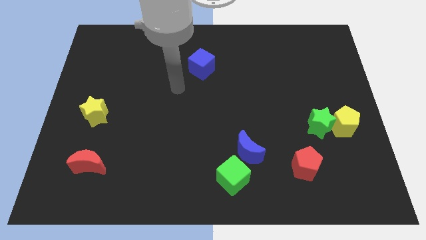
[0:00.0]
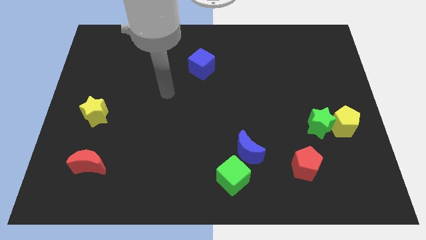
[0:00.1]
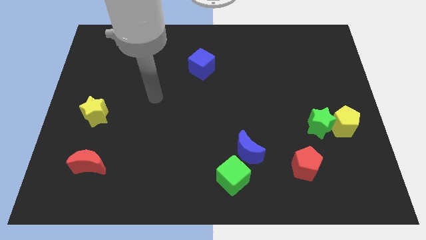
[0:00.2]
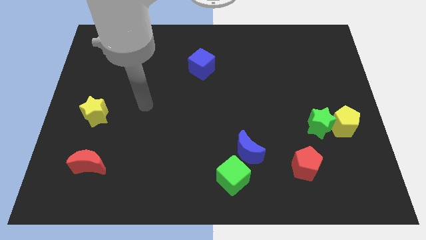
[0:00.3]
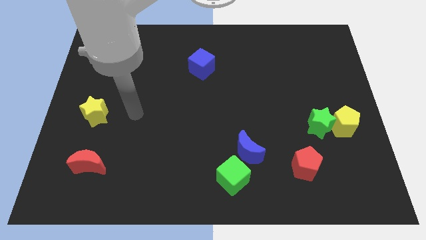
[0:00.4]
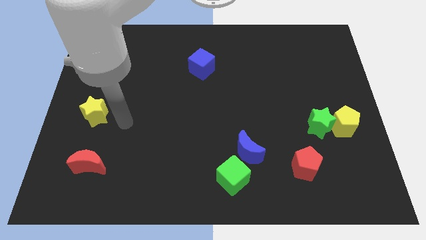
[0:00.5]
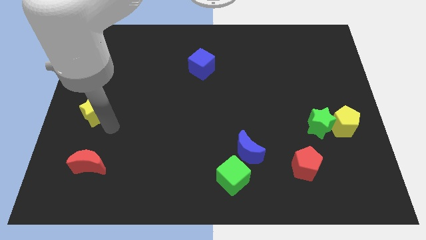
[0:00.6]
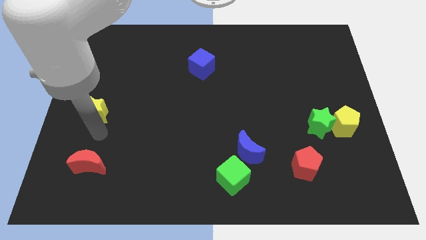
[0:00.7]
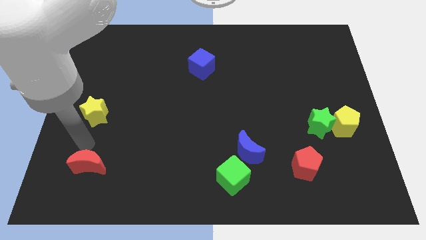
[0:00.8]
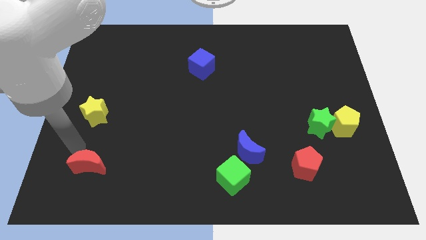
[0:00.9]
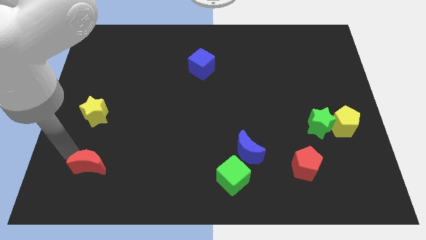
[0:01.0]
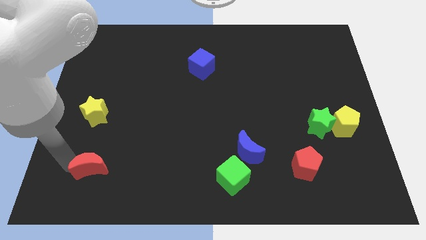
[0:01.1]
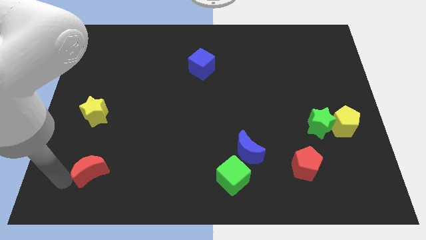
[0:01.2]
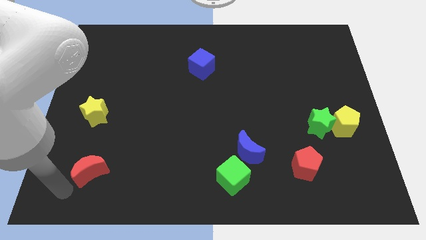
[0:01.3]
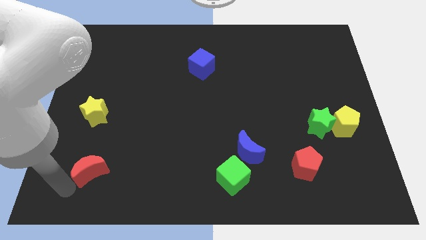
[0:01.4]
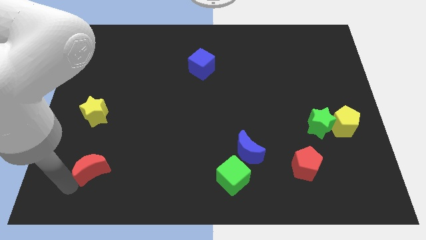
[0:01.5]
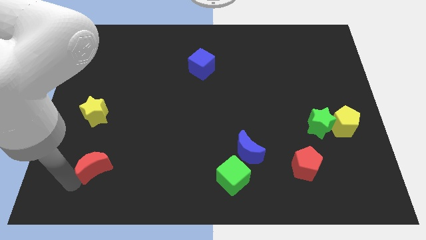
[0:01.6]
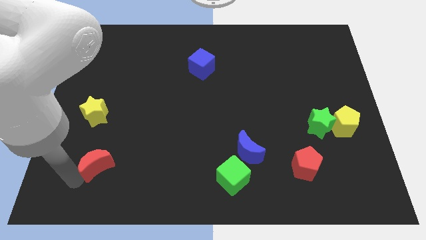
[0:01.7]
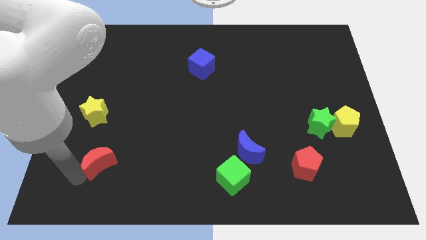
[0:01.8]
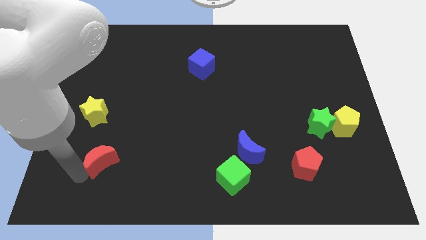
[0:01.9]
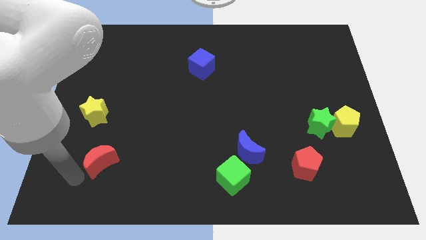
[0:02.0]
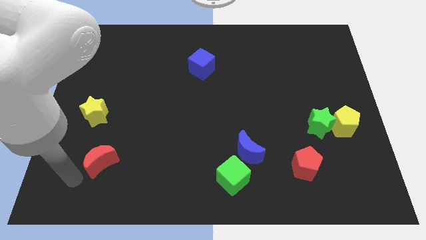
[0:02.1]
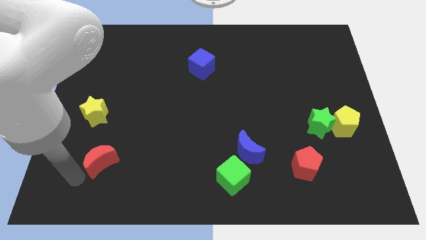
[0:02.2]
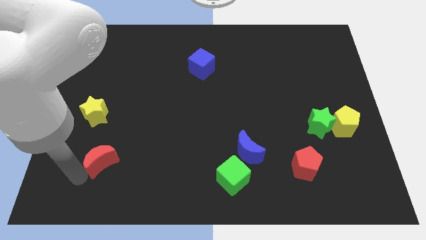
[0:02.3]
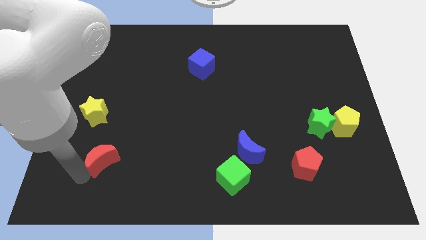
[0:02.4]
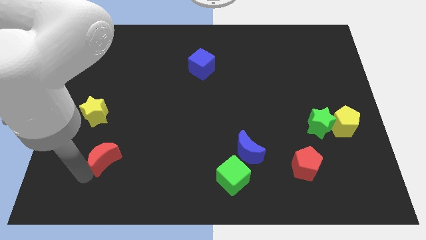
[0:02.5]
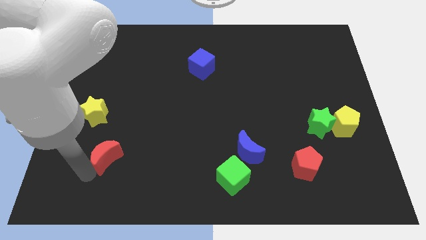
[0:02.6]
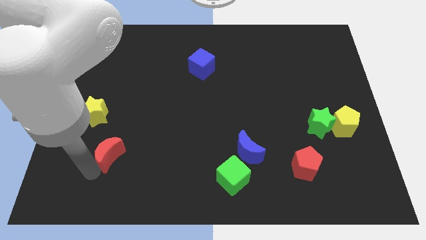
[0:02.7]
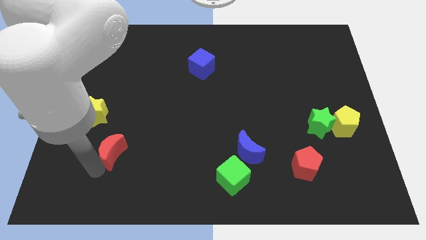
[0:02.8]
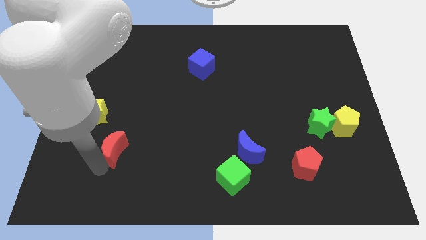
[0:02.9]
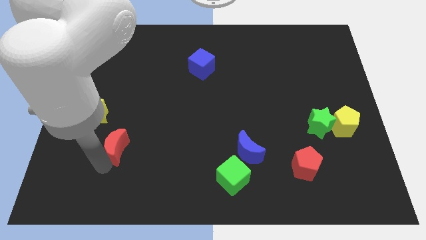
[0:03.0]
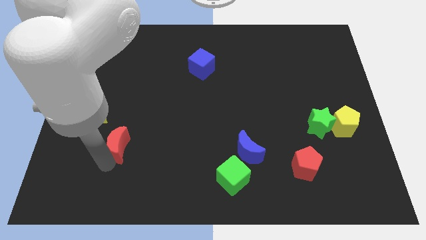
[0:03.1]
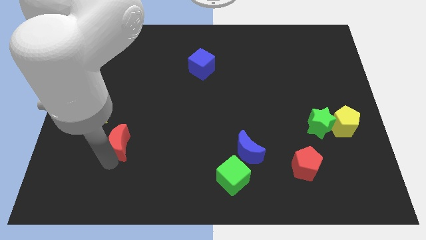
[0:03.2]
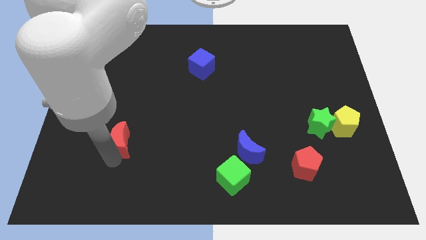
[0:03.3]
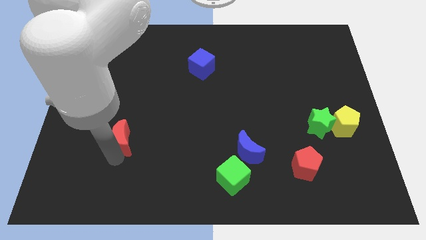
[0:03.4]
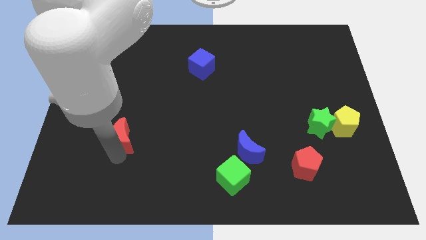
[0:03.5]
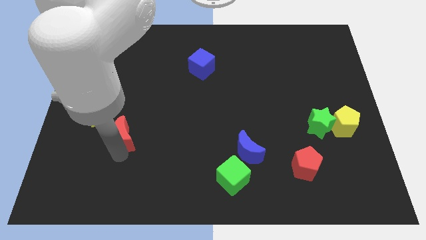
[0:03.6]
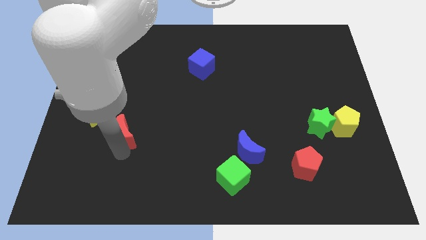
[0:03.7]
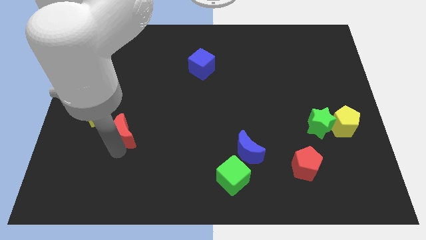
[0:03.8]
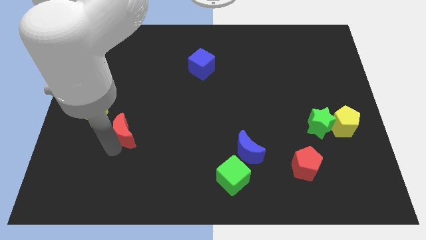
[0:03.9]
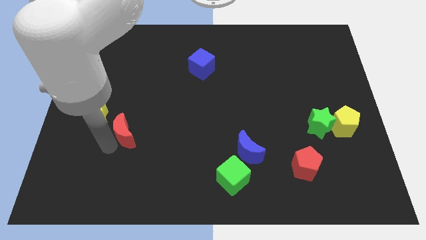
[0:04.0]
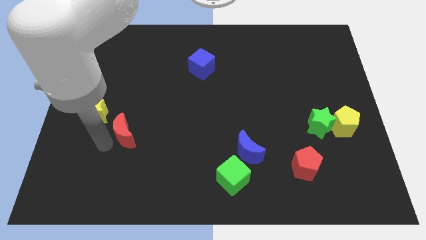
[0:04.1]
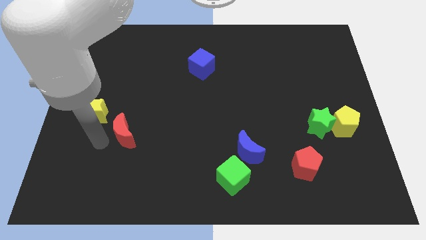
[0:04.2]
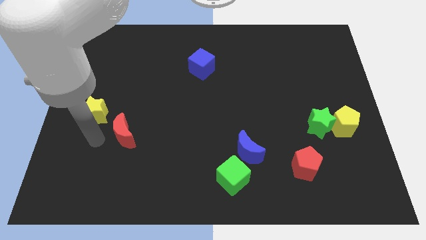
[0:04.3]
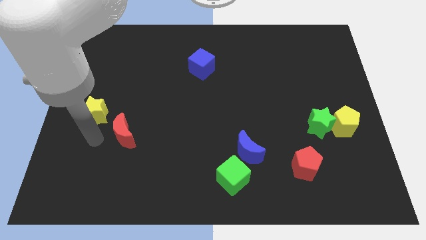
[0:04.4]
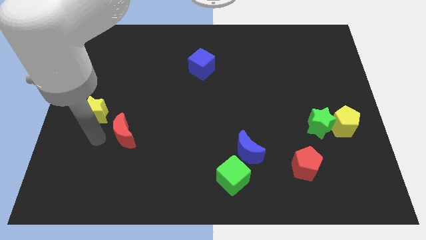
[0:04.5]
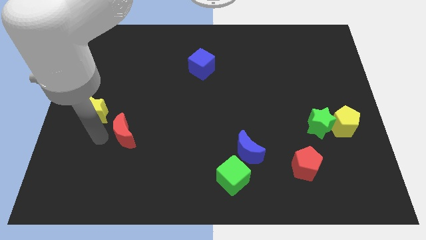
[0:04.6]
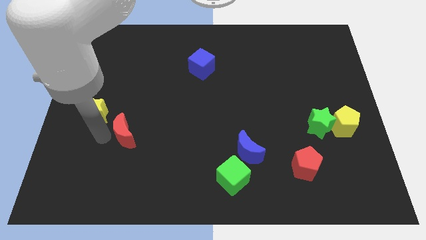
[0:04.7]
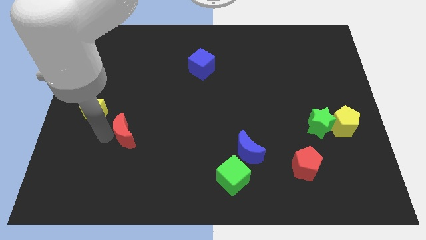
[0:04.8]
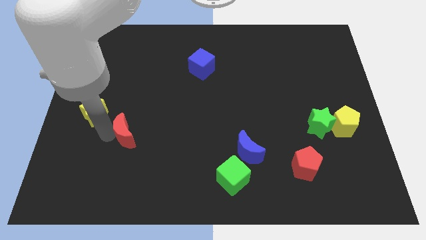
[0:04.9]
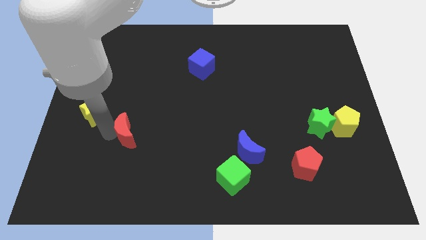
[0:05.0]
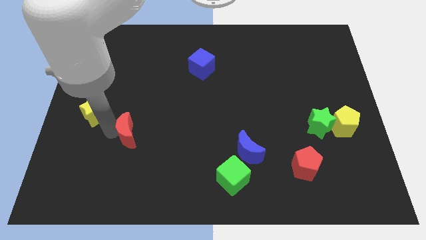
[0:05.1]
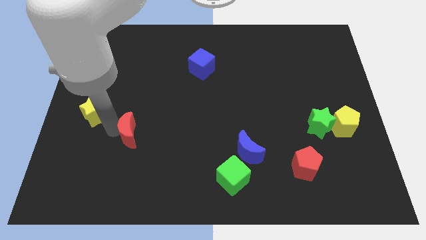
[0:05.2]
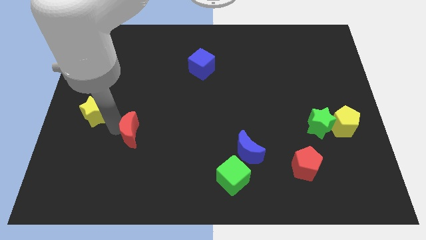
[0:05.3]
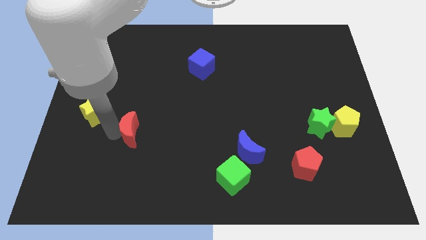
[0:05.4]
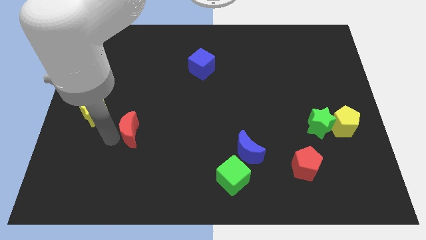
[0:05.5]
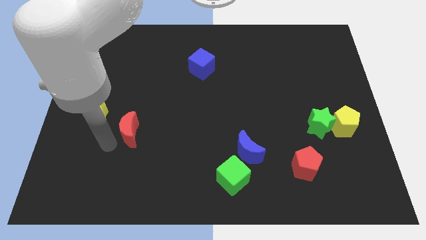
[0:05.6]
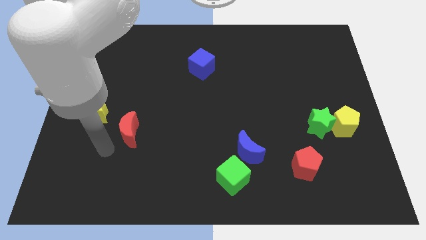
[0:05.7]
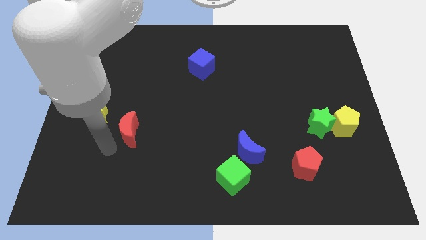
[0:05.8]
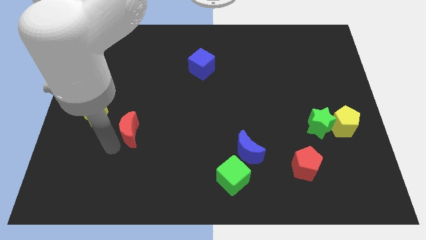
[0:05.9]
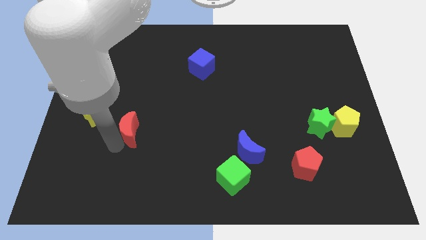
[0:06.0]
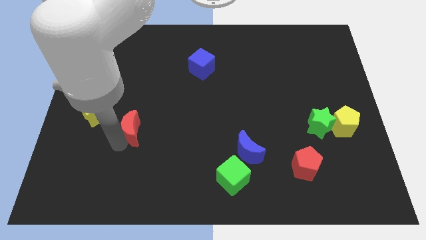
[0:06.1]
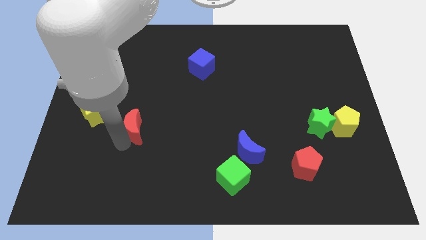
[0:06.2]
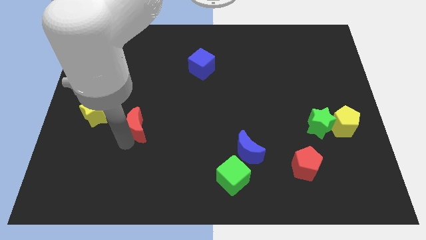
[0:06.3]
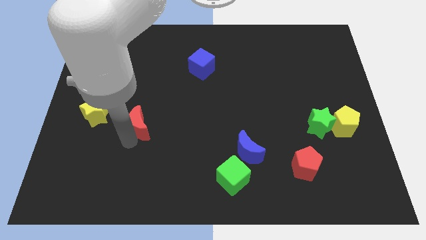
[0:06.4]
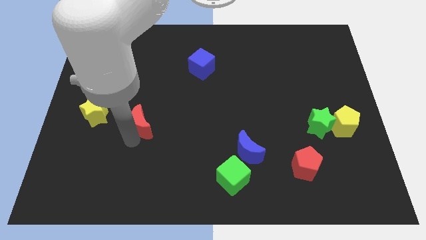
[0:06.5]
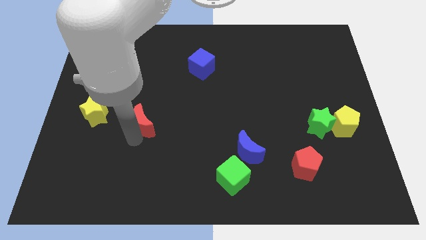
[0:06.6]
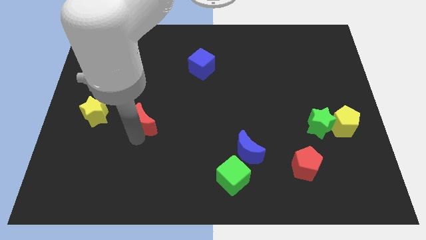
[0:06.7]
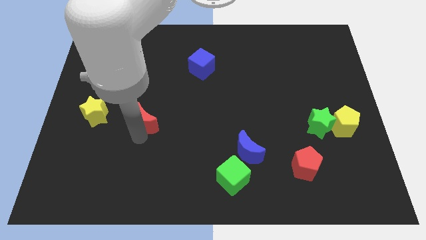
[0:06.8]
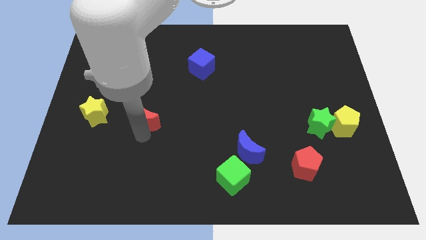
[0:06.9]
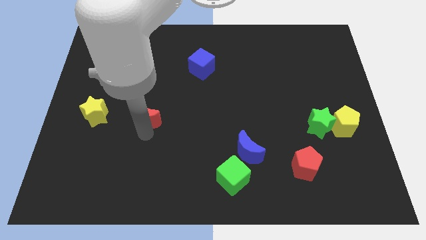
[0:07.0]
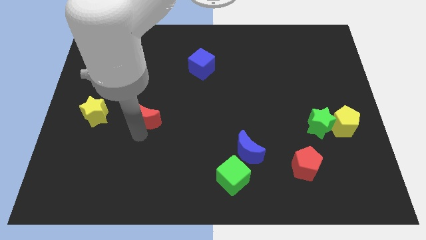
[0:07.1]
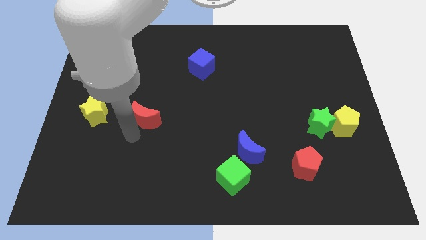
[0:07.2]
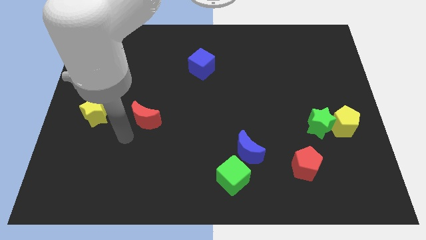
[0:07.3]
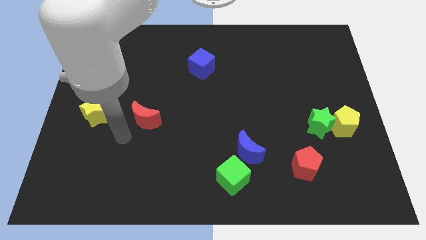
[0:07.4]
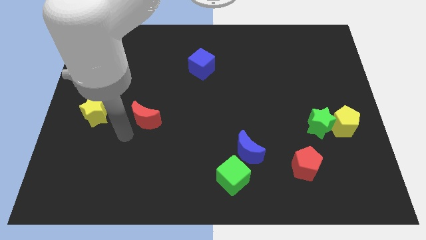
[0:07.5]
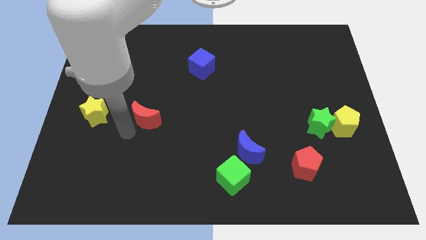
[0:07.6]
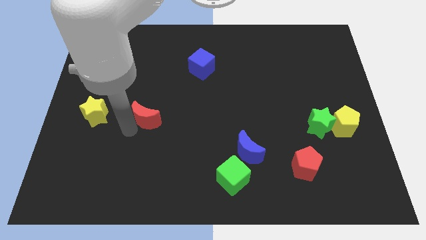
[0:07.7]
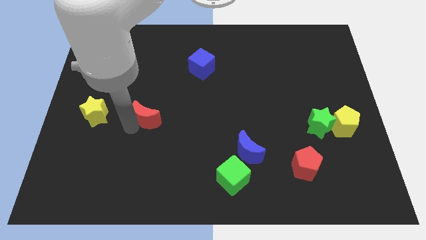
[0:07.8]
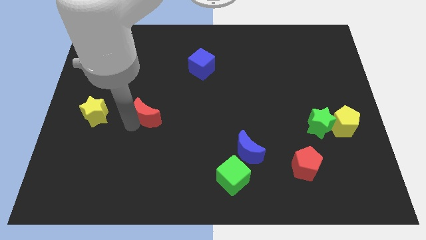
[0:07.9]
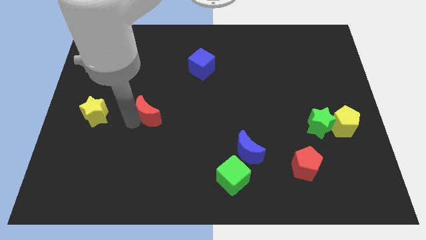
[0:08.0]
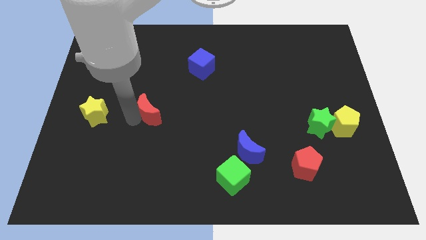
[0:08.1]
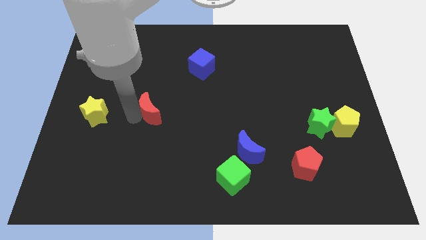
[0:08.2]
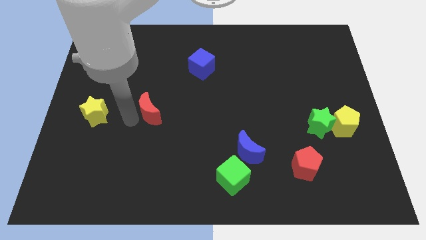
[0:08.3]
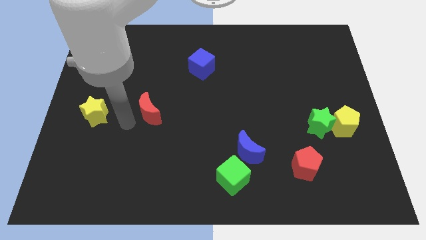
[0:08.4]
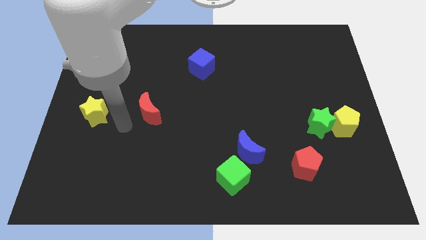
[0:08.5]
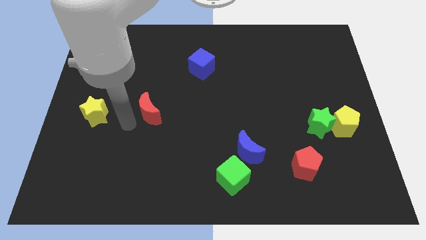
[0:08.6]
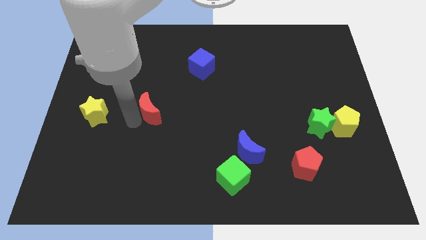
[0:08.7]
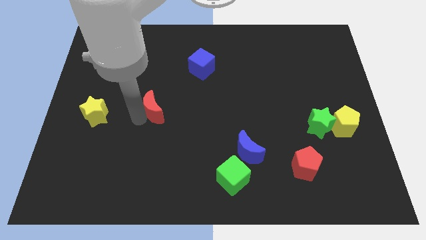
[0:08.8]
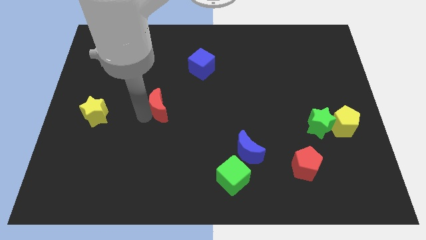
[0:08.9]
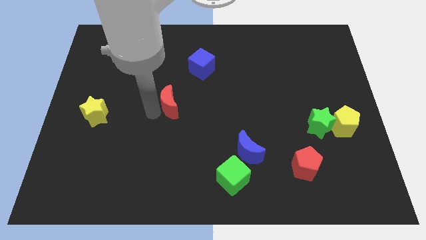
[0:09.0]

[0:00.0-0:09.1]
push the red moon diagonally upwards and to the right
